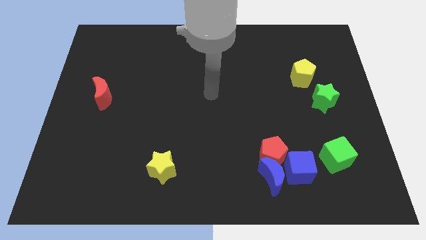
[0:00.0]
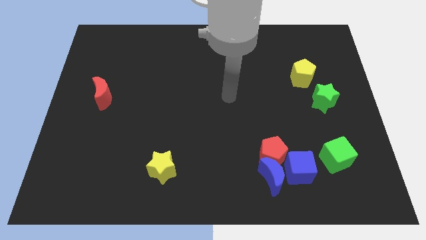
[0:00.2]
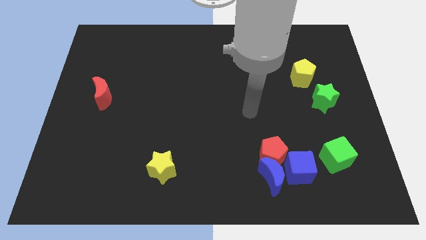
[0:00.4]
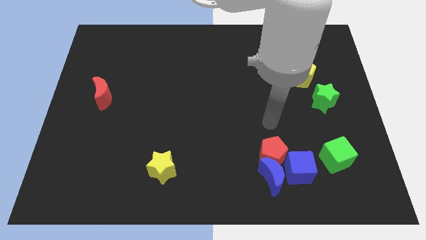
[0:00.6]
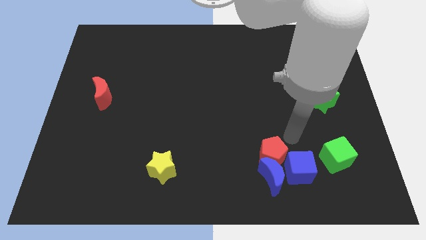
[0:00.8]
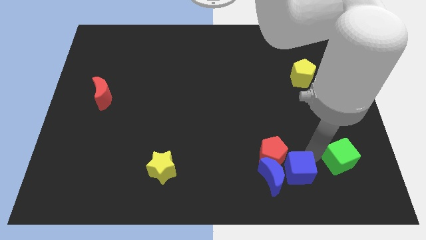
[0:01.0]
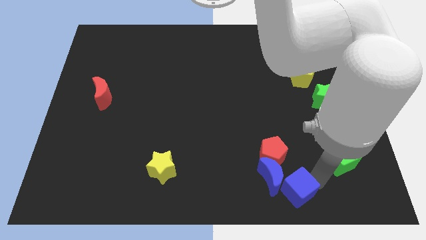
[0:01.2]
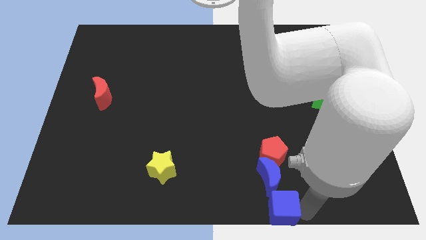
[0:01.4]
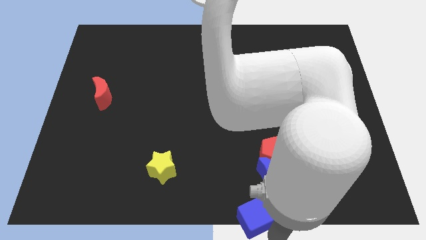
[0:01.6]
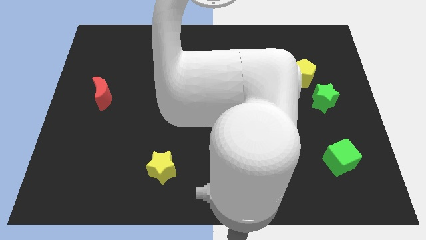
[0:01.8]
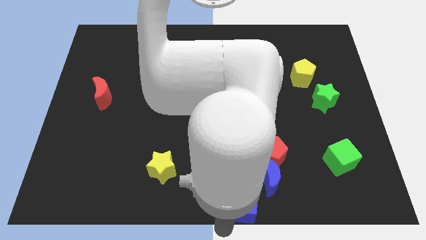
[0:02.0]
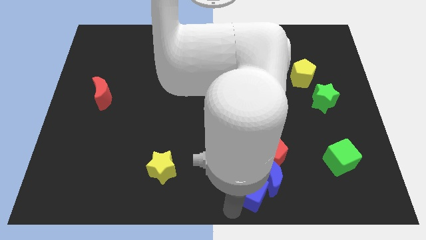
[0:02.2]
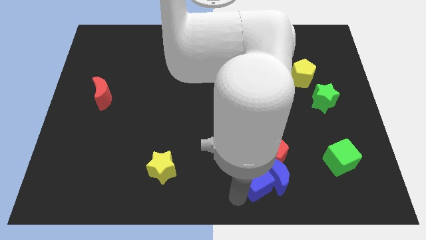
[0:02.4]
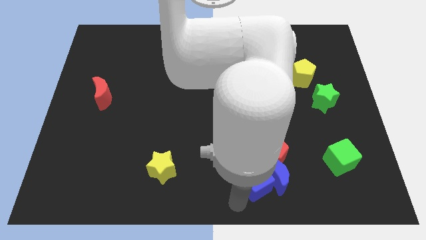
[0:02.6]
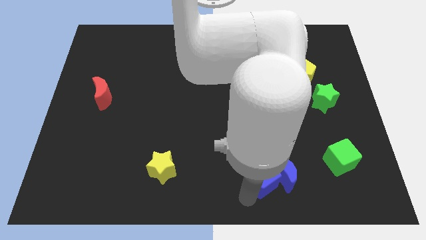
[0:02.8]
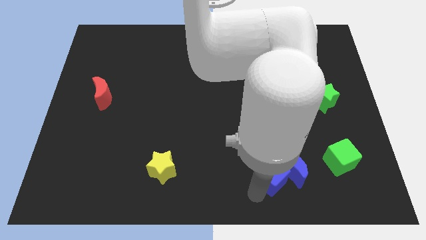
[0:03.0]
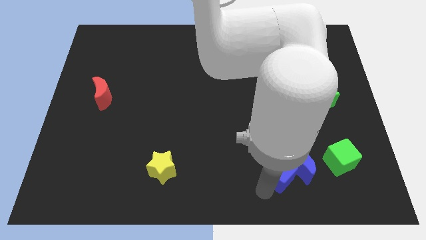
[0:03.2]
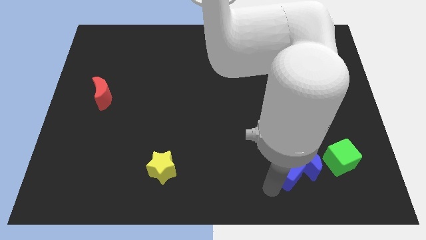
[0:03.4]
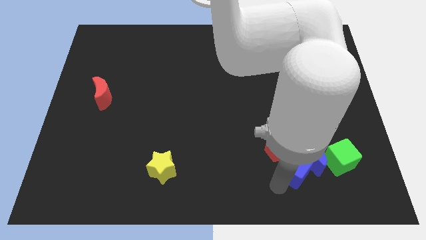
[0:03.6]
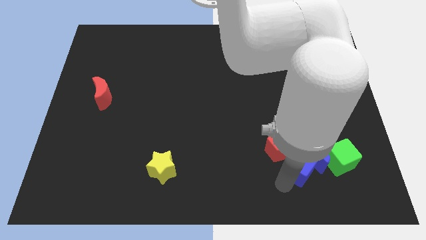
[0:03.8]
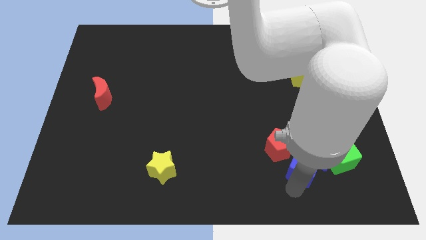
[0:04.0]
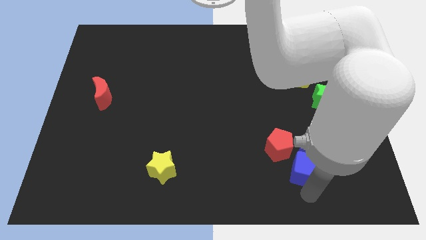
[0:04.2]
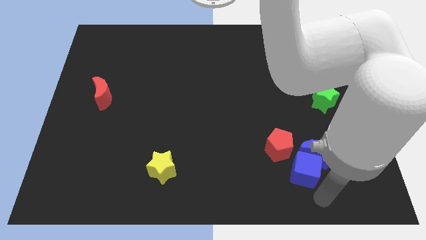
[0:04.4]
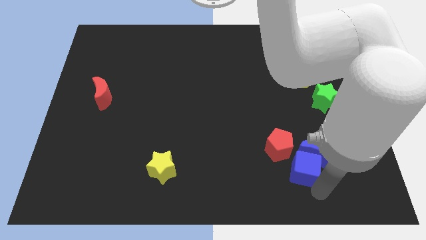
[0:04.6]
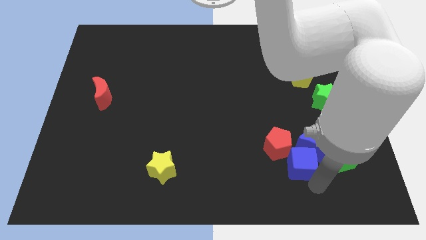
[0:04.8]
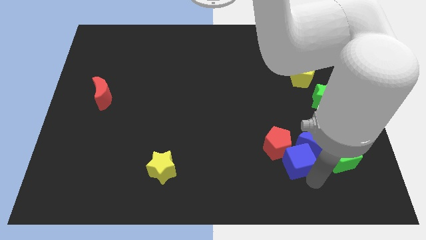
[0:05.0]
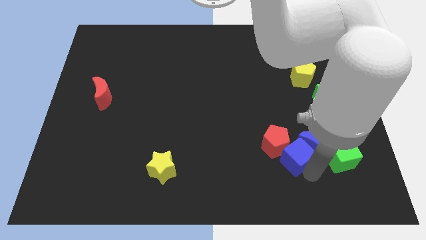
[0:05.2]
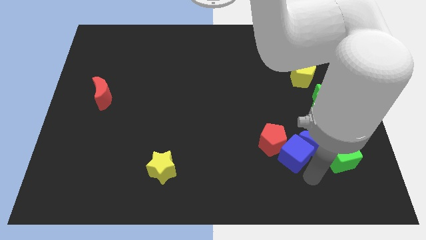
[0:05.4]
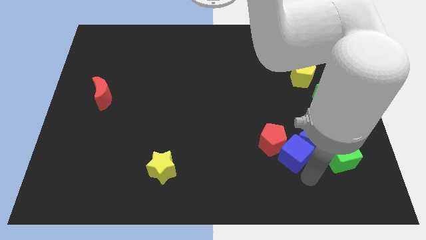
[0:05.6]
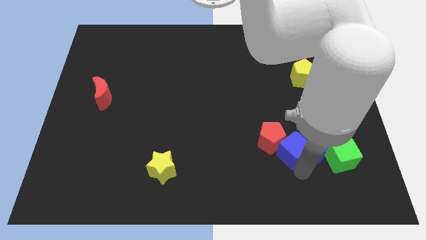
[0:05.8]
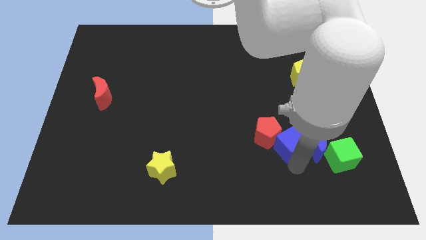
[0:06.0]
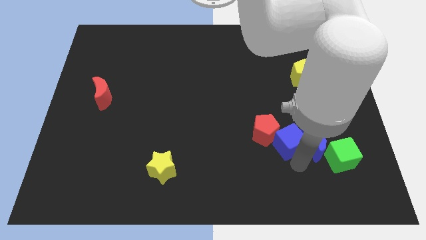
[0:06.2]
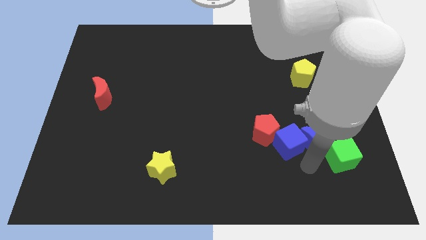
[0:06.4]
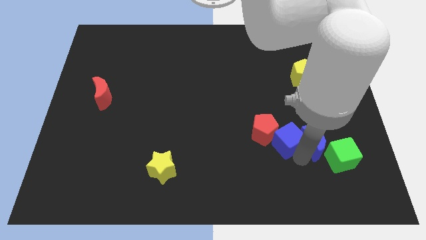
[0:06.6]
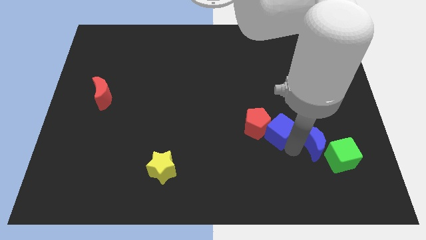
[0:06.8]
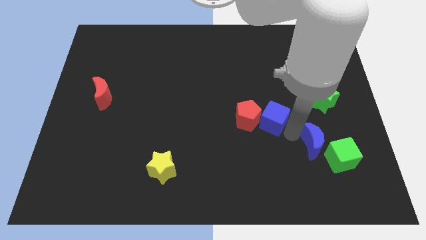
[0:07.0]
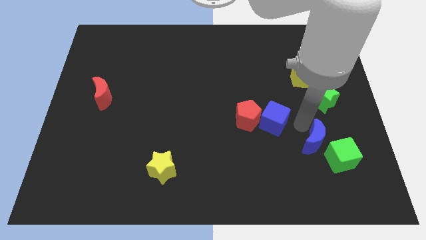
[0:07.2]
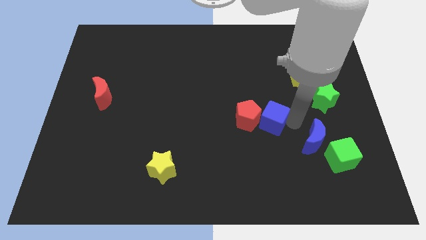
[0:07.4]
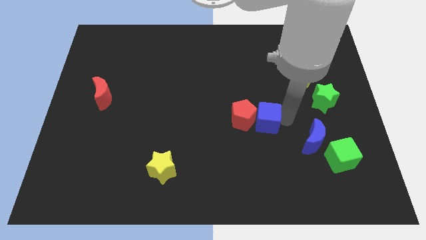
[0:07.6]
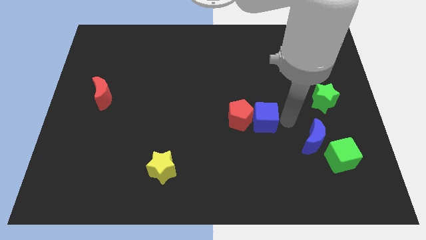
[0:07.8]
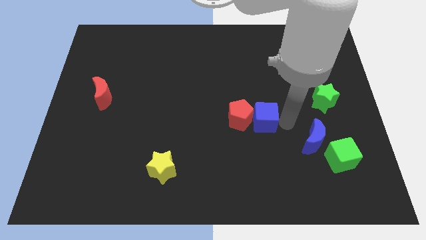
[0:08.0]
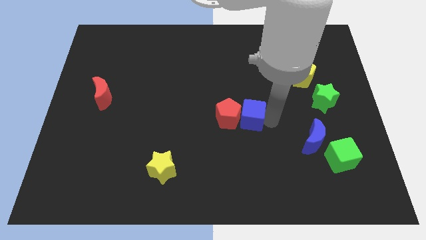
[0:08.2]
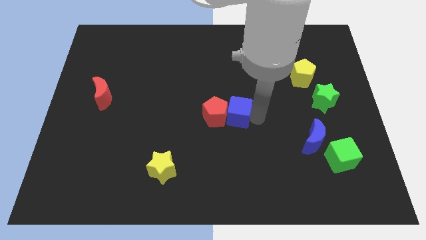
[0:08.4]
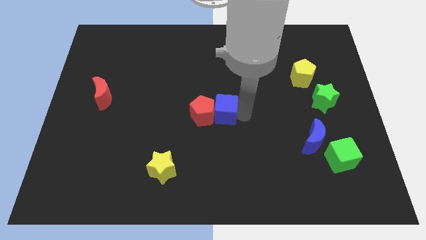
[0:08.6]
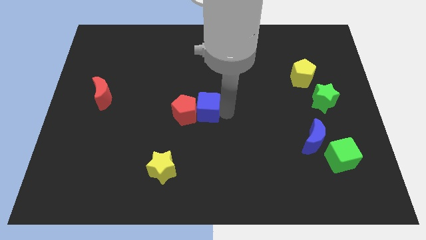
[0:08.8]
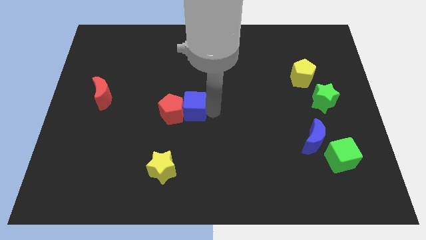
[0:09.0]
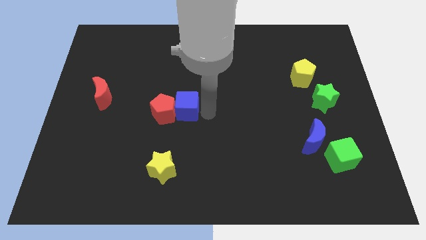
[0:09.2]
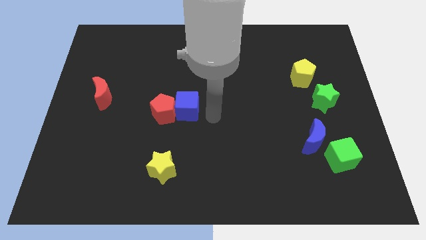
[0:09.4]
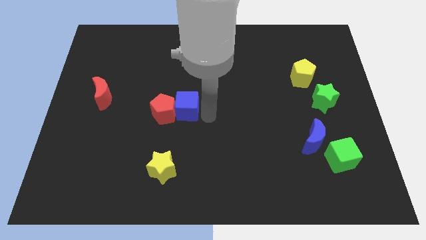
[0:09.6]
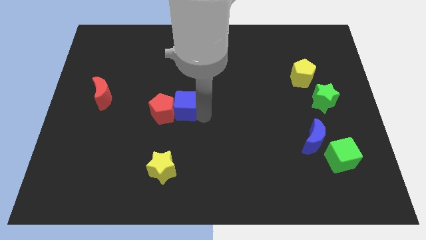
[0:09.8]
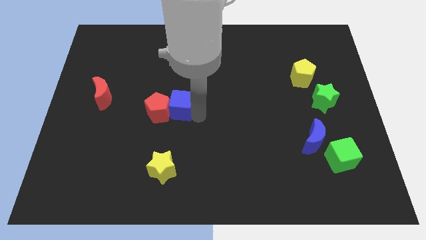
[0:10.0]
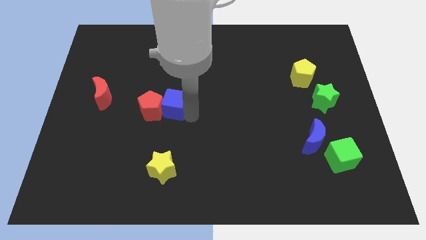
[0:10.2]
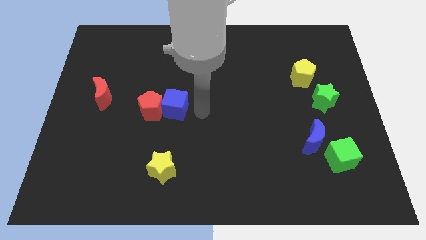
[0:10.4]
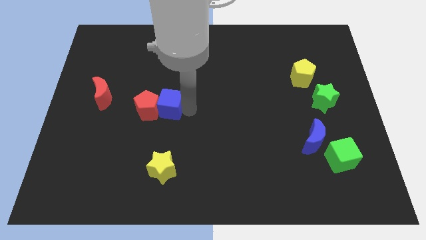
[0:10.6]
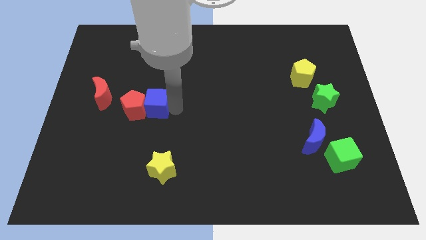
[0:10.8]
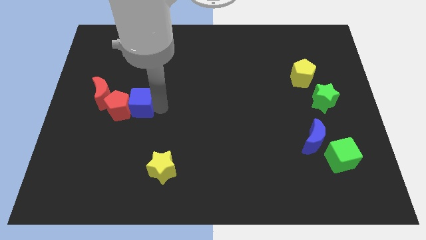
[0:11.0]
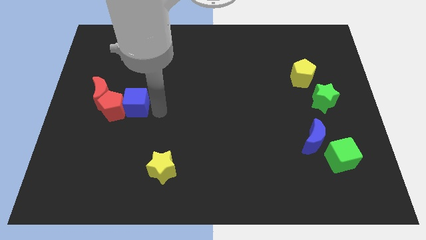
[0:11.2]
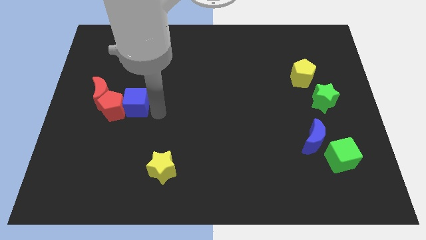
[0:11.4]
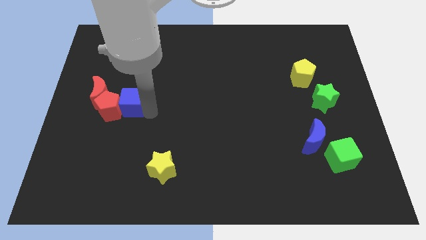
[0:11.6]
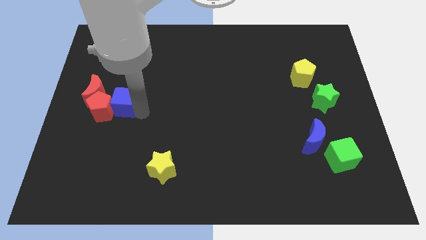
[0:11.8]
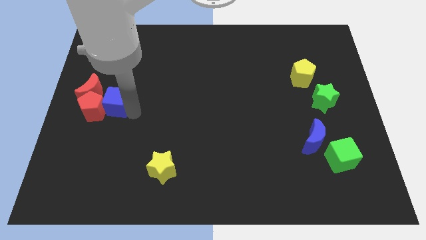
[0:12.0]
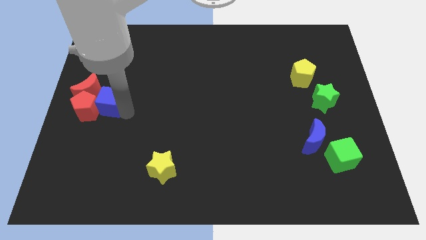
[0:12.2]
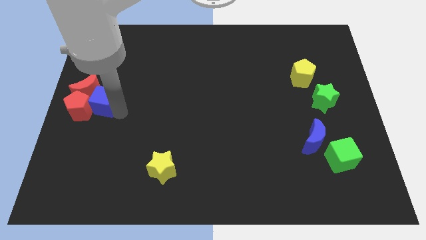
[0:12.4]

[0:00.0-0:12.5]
push the blue cube to the red moon

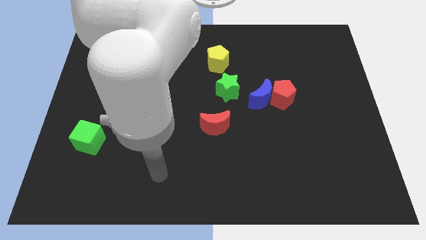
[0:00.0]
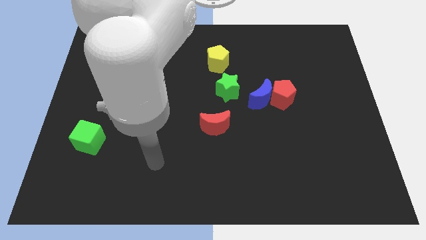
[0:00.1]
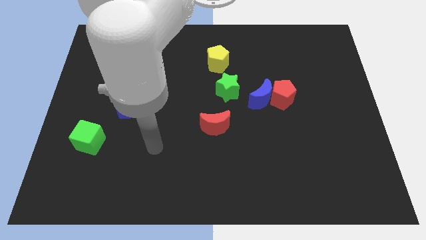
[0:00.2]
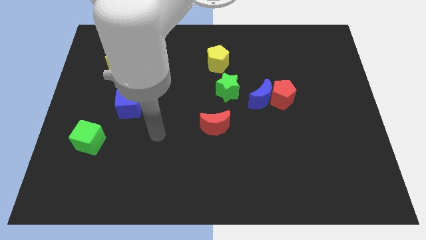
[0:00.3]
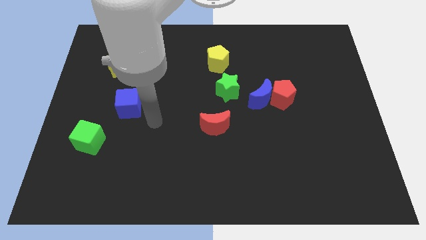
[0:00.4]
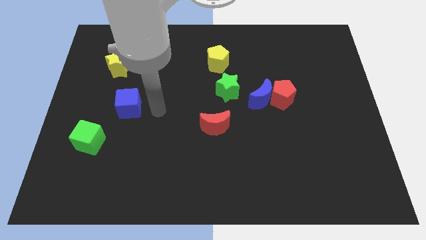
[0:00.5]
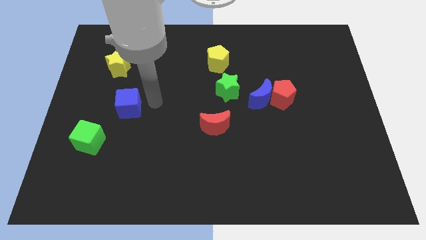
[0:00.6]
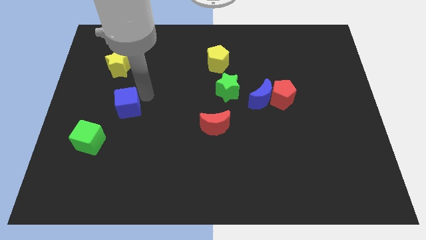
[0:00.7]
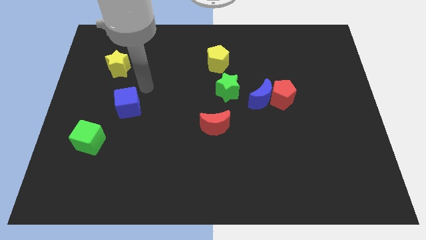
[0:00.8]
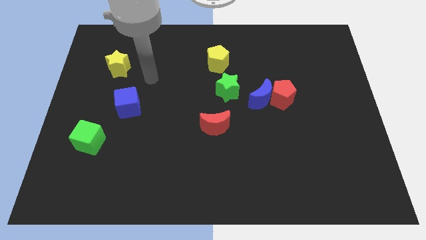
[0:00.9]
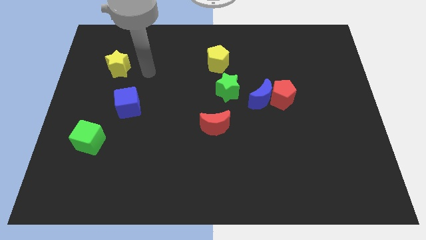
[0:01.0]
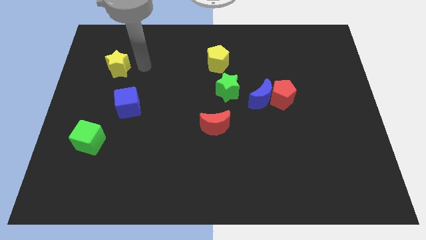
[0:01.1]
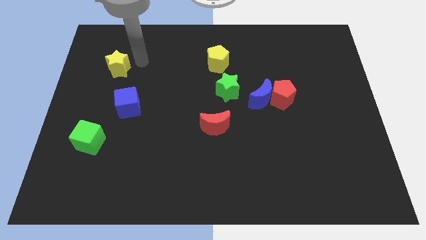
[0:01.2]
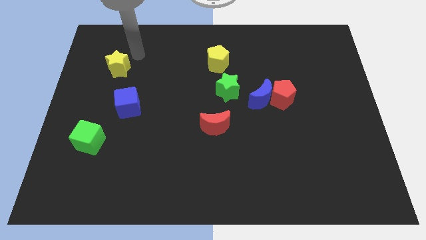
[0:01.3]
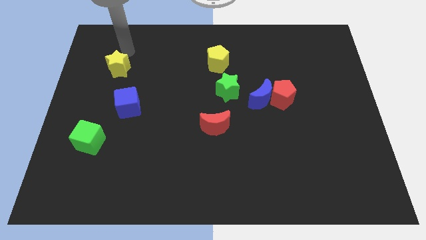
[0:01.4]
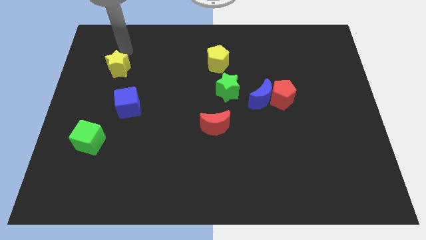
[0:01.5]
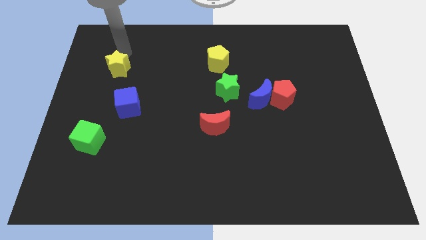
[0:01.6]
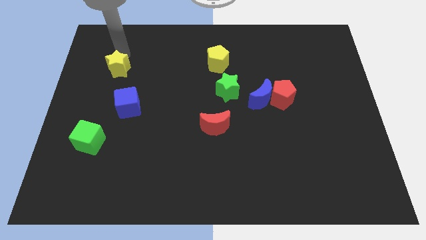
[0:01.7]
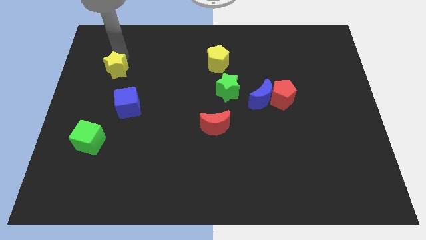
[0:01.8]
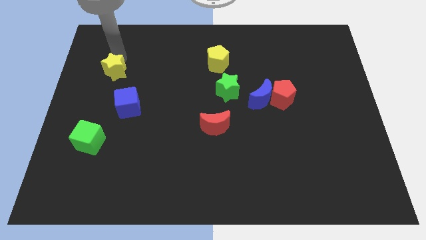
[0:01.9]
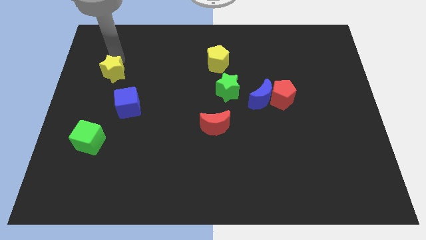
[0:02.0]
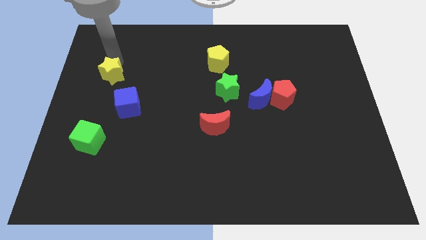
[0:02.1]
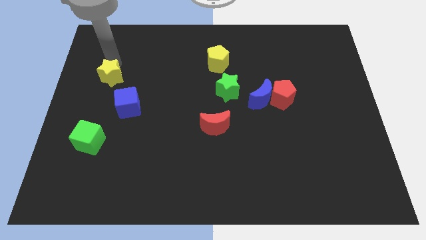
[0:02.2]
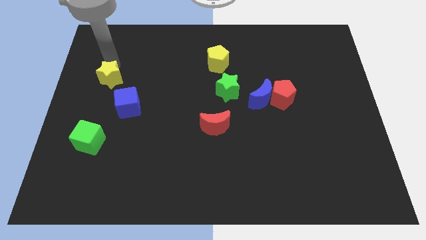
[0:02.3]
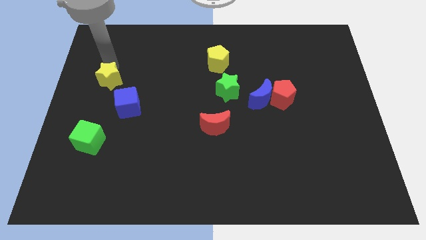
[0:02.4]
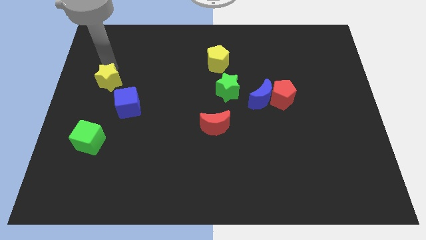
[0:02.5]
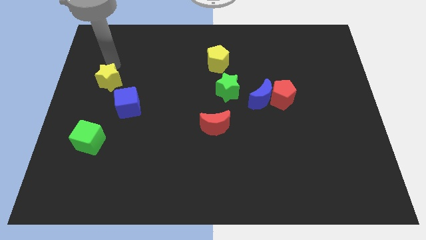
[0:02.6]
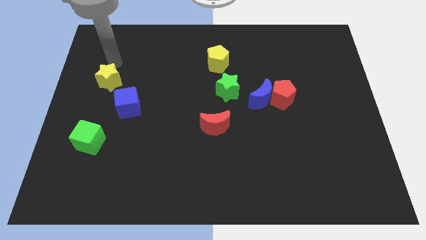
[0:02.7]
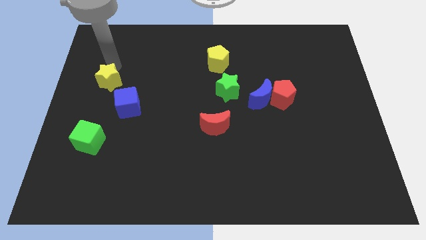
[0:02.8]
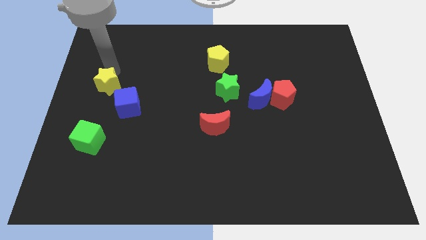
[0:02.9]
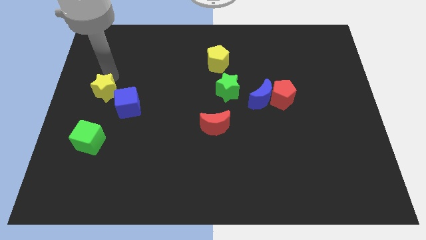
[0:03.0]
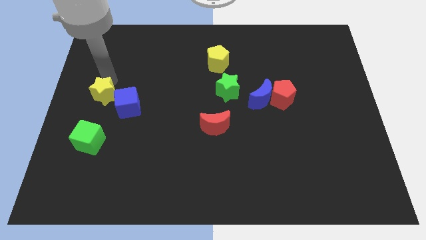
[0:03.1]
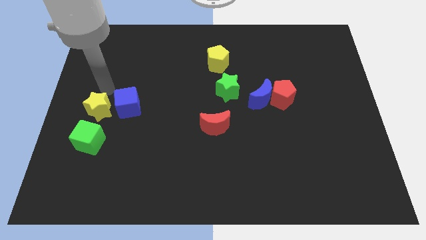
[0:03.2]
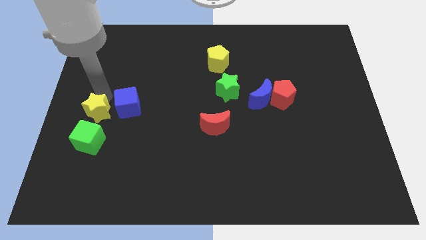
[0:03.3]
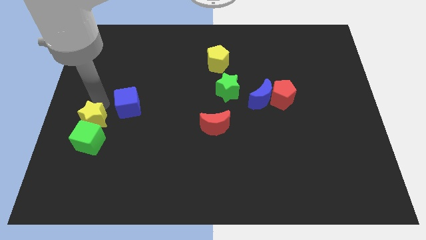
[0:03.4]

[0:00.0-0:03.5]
put the yellow star next to the green cube
